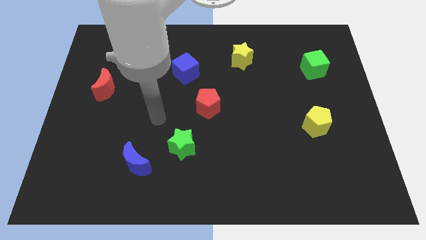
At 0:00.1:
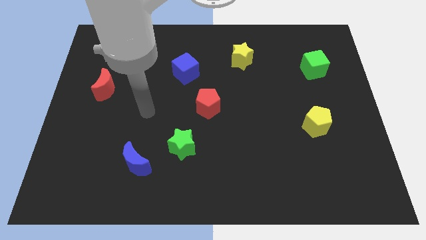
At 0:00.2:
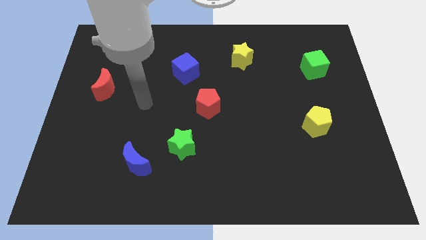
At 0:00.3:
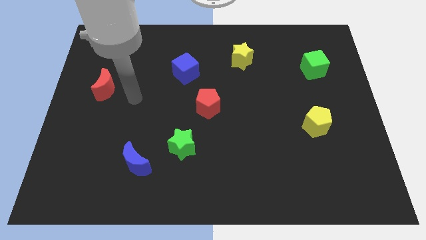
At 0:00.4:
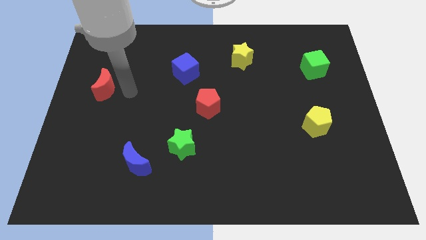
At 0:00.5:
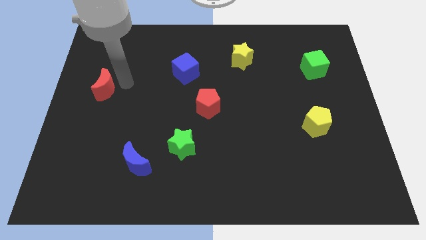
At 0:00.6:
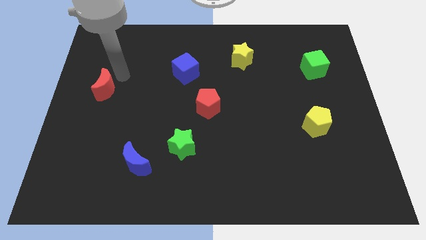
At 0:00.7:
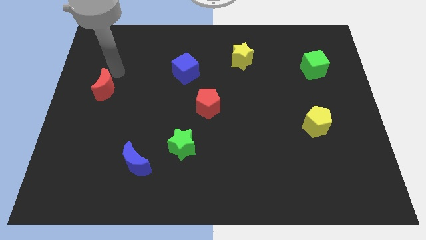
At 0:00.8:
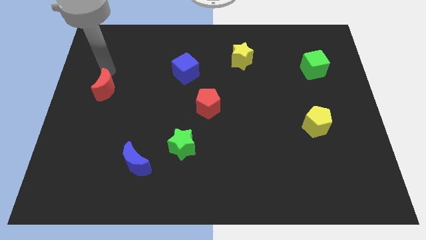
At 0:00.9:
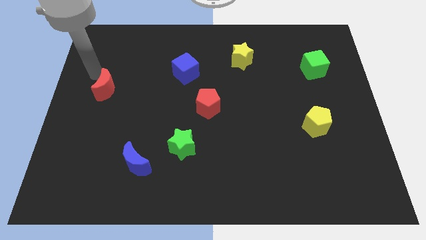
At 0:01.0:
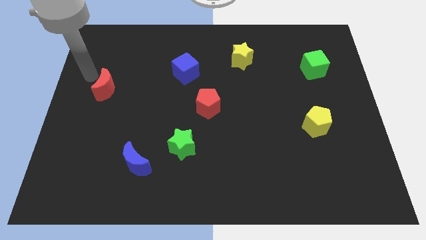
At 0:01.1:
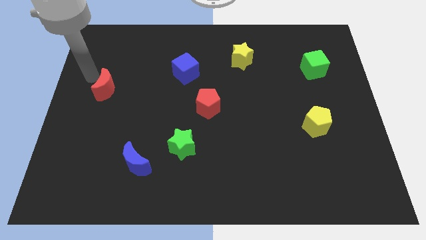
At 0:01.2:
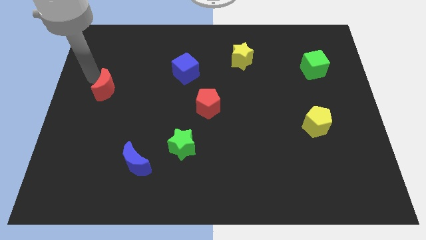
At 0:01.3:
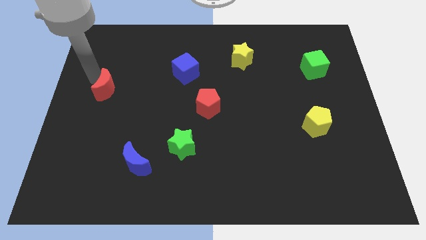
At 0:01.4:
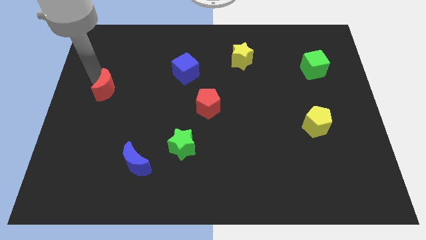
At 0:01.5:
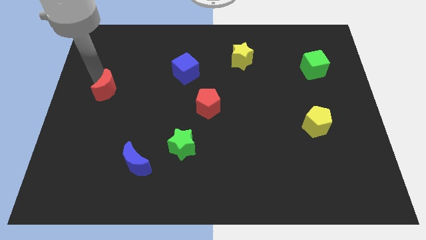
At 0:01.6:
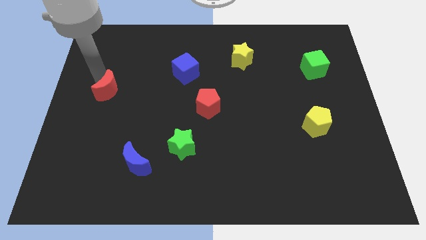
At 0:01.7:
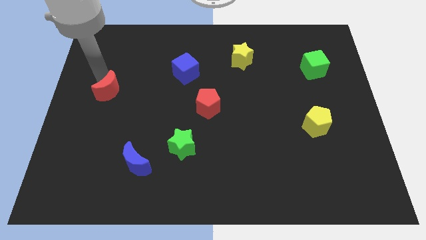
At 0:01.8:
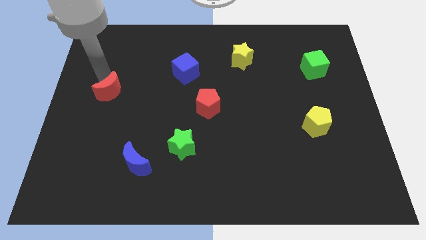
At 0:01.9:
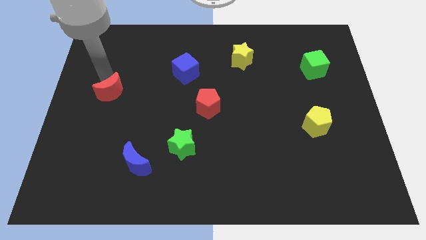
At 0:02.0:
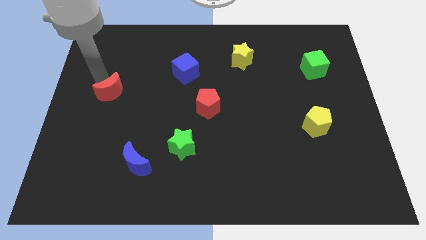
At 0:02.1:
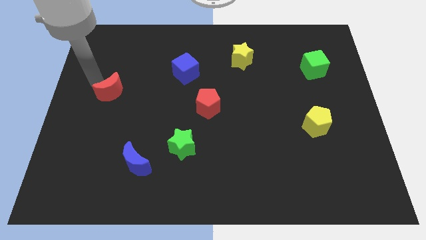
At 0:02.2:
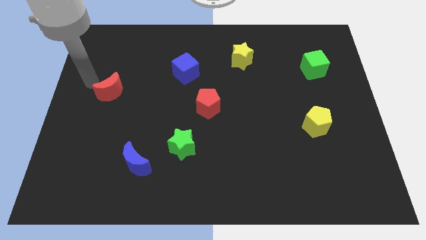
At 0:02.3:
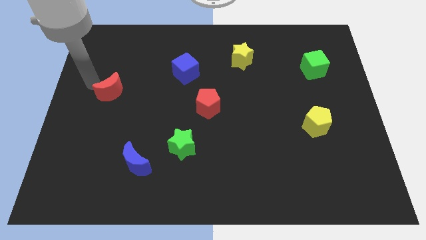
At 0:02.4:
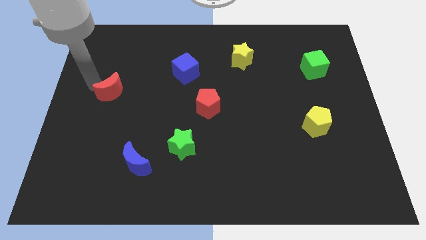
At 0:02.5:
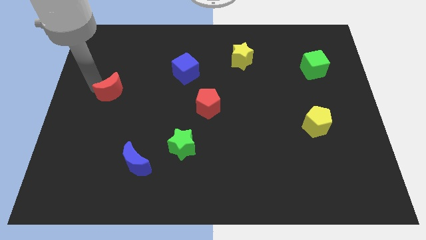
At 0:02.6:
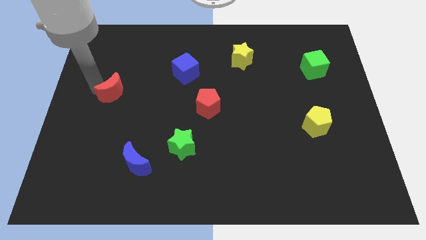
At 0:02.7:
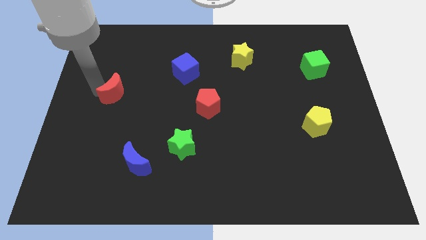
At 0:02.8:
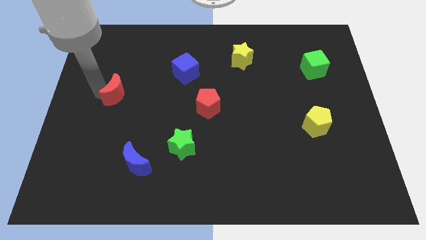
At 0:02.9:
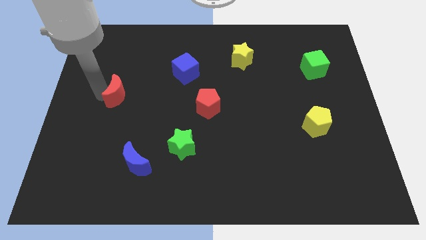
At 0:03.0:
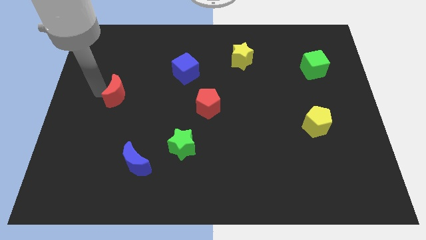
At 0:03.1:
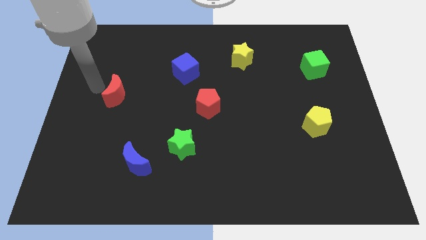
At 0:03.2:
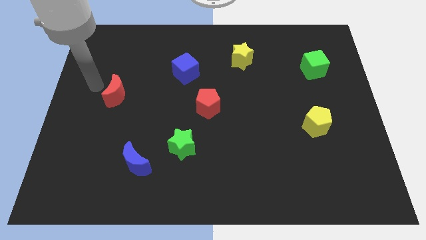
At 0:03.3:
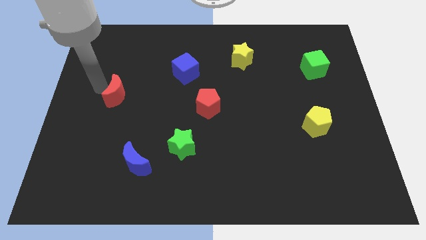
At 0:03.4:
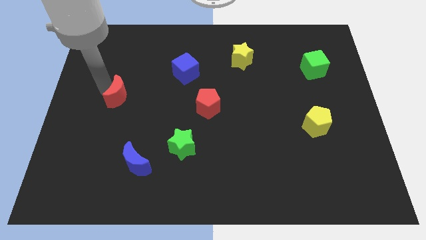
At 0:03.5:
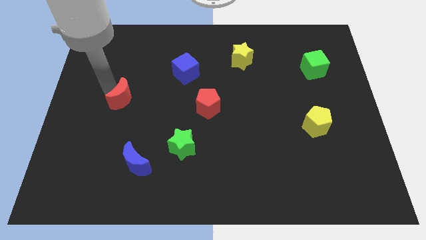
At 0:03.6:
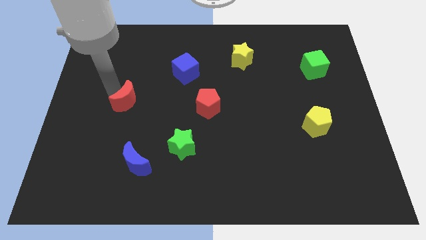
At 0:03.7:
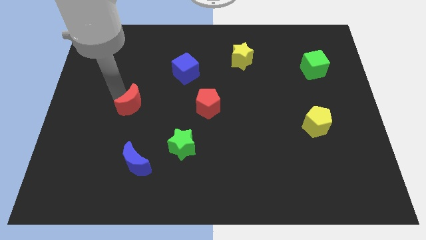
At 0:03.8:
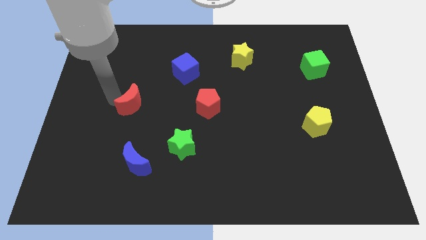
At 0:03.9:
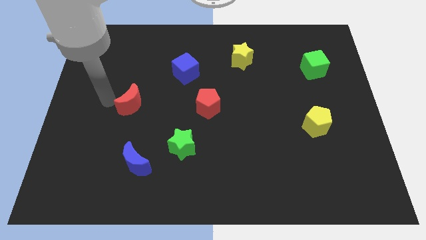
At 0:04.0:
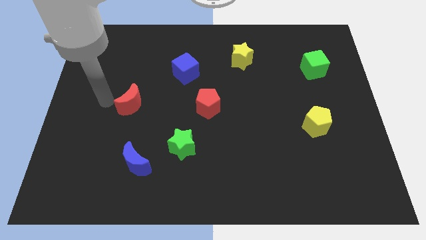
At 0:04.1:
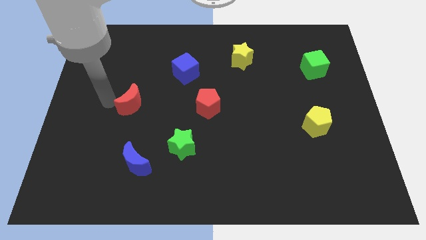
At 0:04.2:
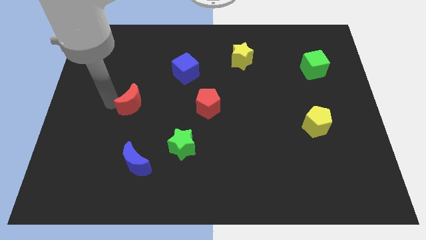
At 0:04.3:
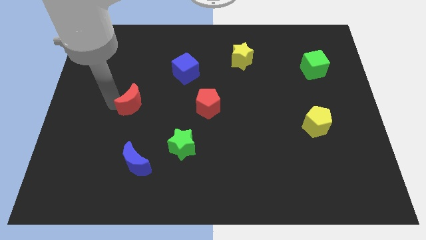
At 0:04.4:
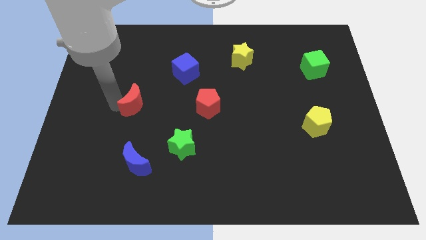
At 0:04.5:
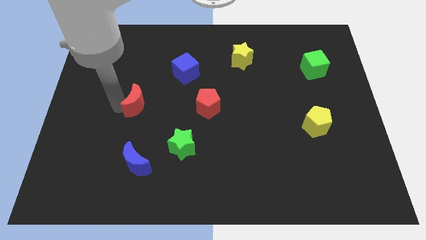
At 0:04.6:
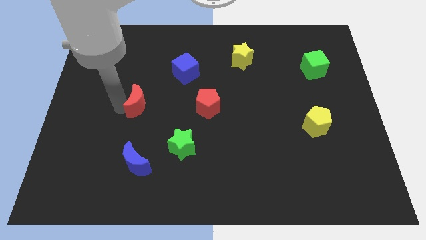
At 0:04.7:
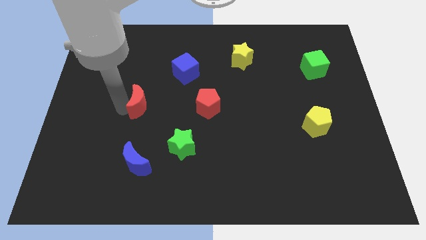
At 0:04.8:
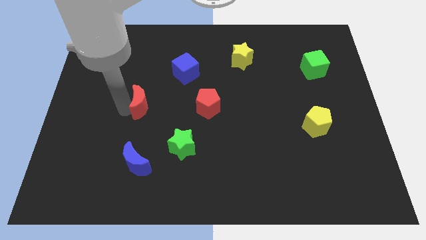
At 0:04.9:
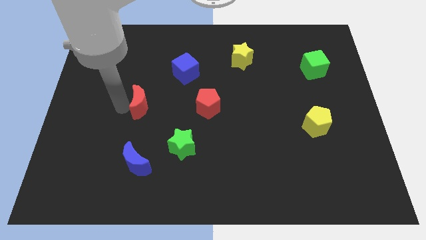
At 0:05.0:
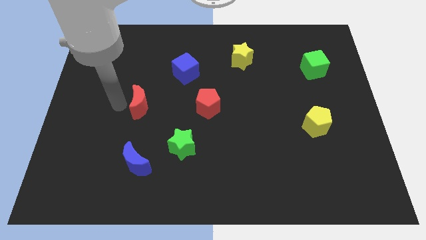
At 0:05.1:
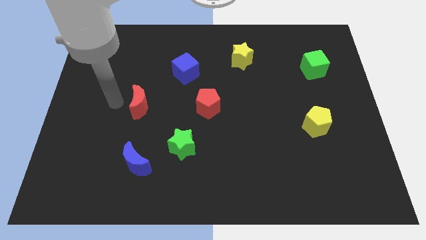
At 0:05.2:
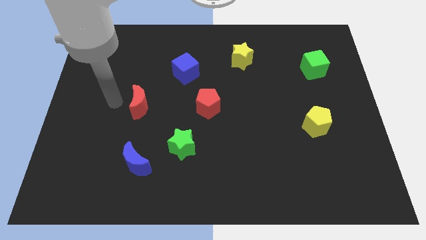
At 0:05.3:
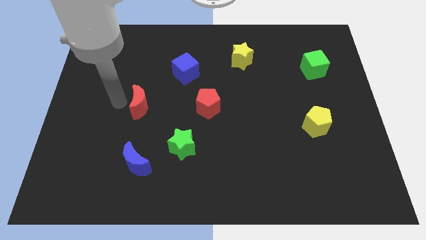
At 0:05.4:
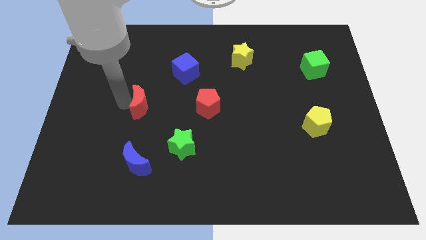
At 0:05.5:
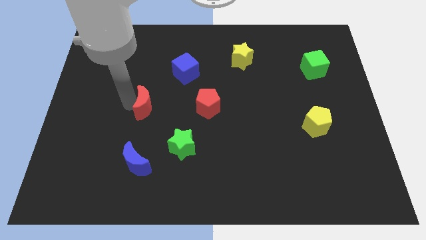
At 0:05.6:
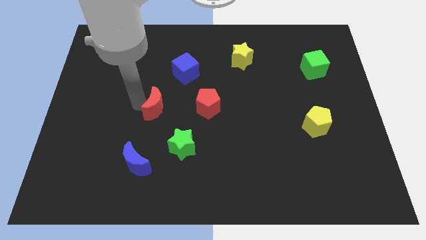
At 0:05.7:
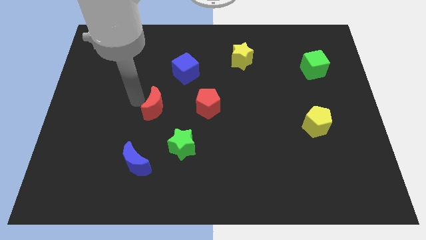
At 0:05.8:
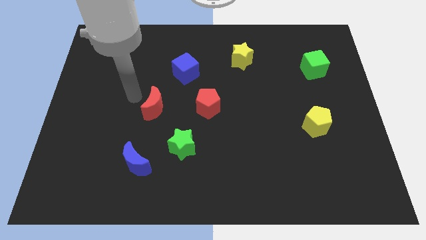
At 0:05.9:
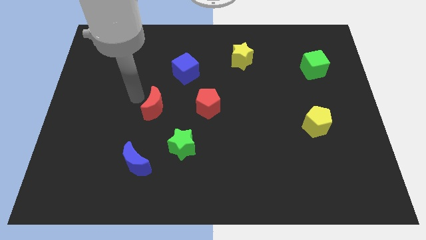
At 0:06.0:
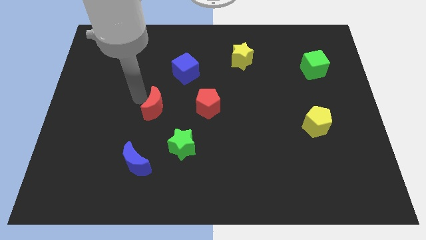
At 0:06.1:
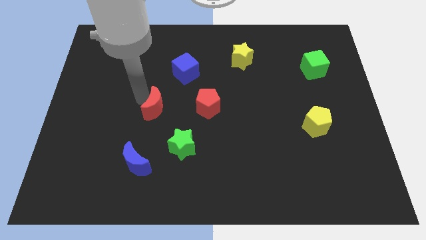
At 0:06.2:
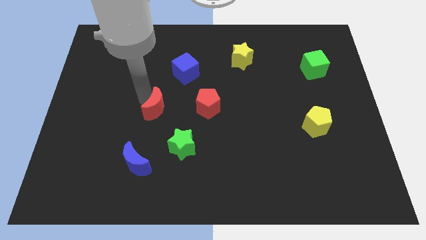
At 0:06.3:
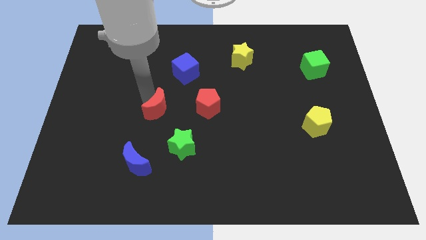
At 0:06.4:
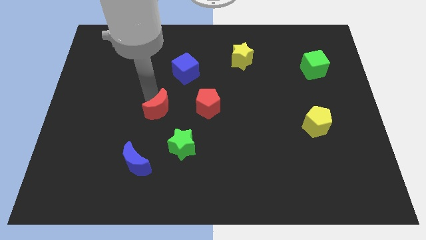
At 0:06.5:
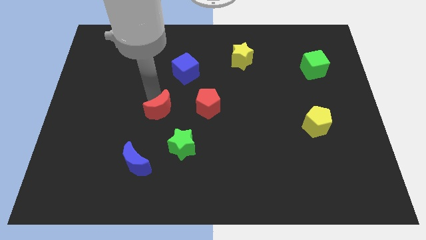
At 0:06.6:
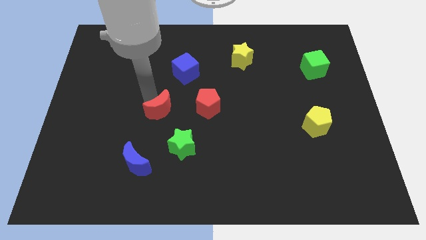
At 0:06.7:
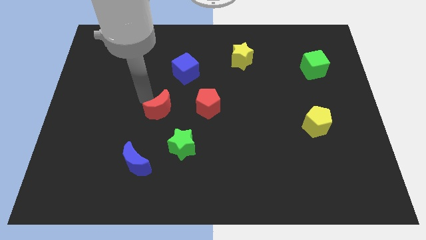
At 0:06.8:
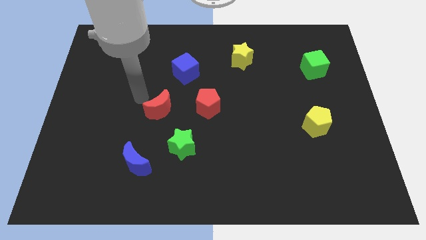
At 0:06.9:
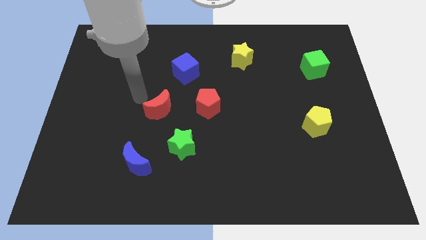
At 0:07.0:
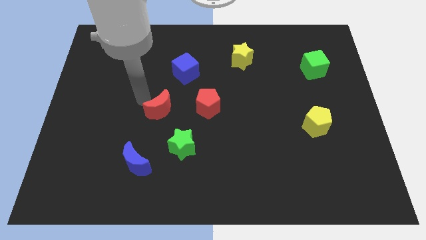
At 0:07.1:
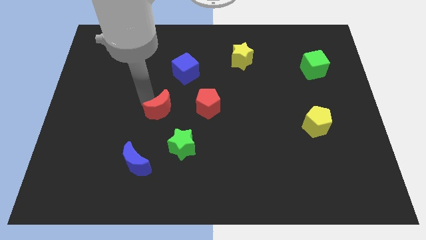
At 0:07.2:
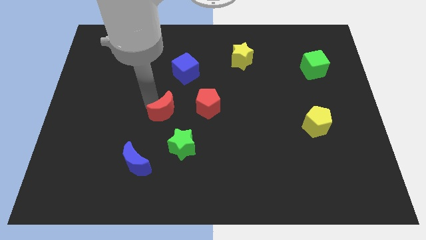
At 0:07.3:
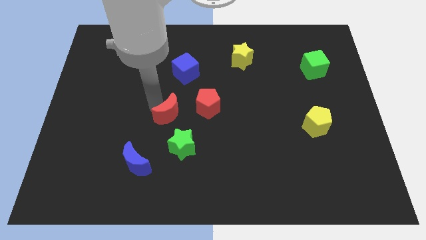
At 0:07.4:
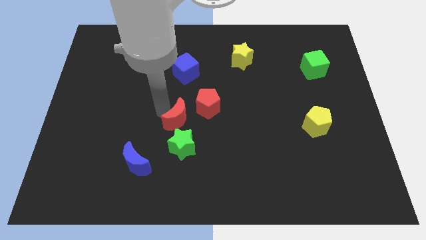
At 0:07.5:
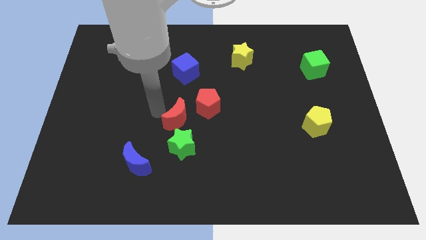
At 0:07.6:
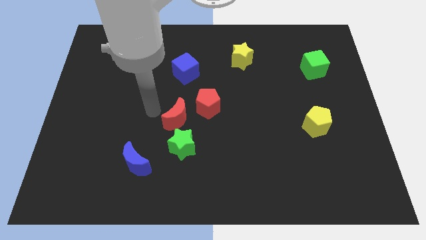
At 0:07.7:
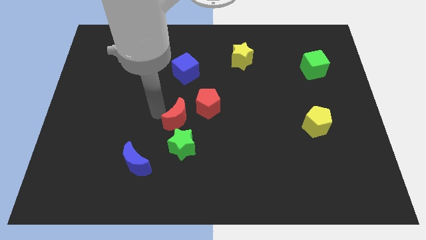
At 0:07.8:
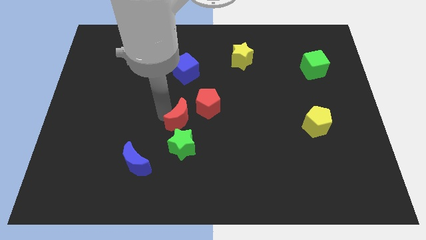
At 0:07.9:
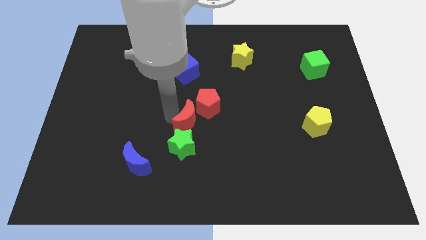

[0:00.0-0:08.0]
move the red moon diagonally up and to the right of the green star
